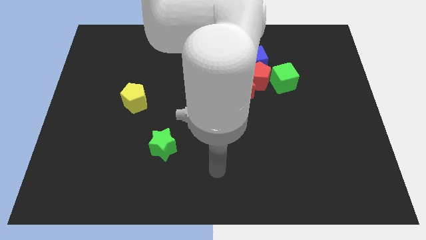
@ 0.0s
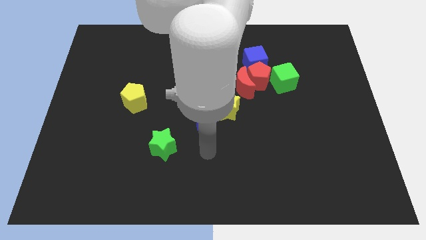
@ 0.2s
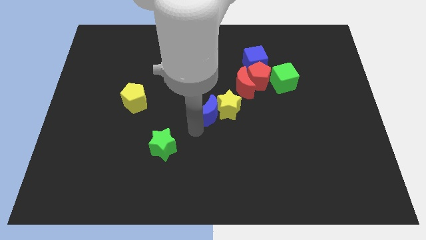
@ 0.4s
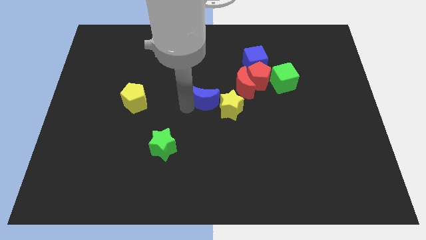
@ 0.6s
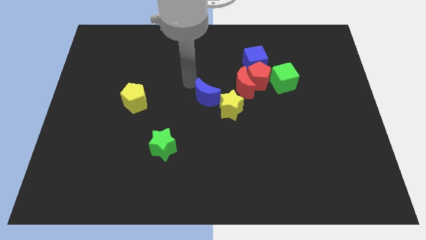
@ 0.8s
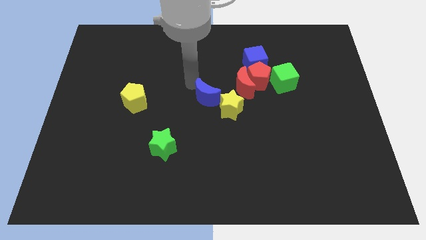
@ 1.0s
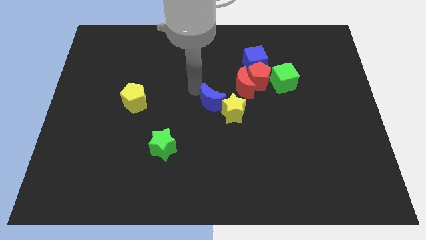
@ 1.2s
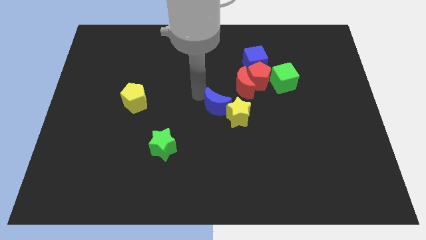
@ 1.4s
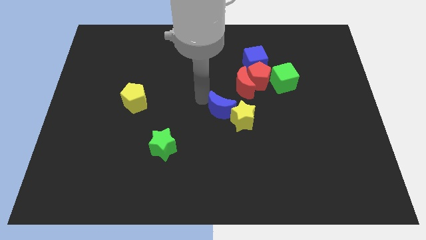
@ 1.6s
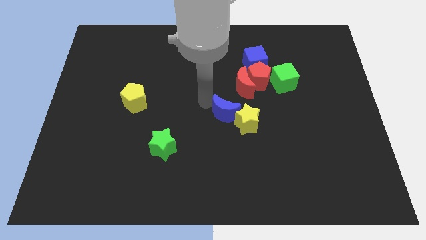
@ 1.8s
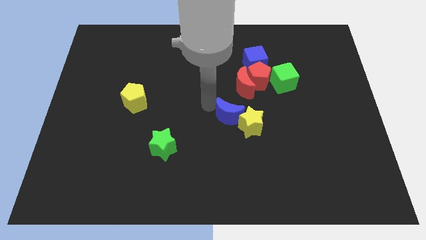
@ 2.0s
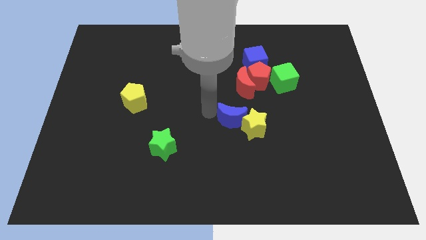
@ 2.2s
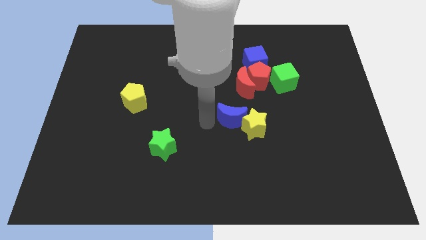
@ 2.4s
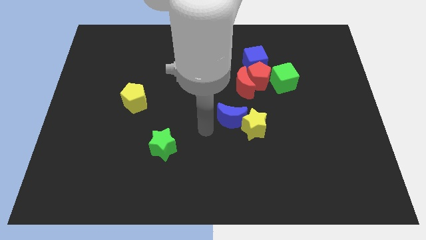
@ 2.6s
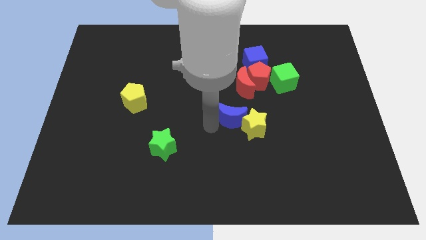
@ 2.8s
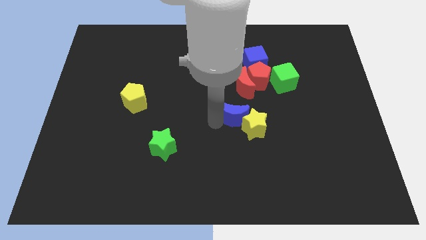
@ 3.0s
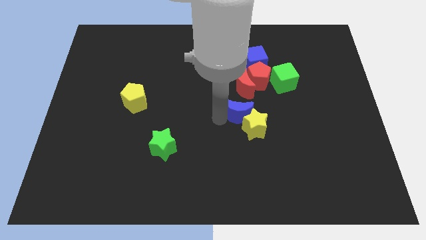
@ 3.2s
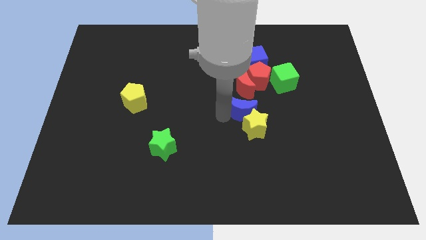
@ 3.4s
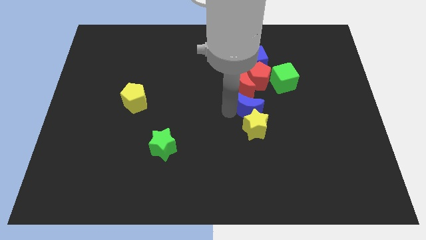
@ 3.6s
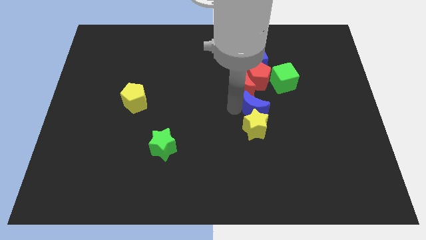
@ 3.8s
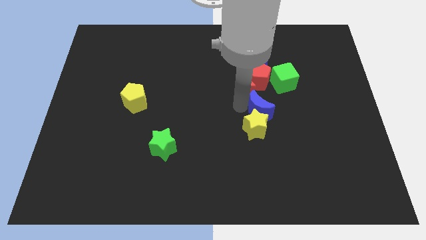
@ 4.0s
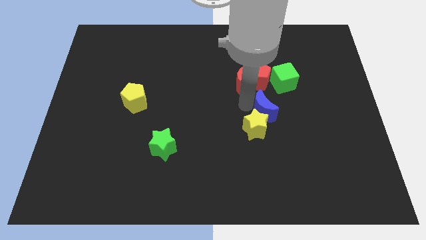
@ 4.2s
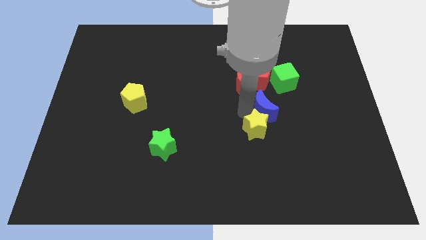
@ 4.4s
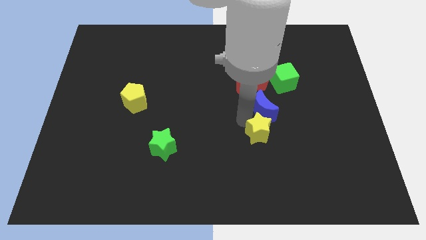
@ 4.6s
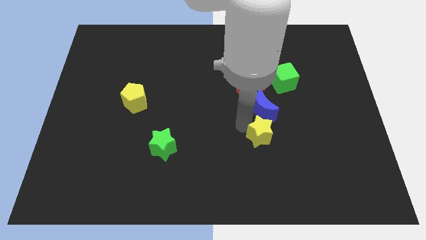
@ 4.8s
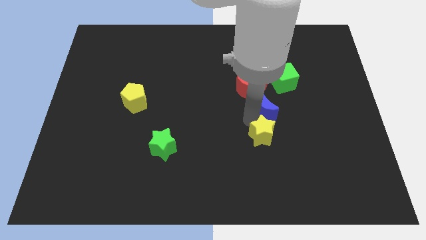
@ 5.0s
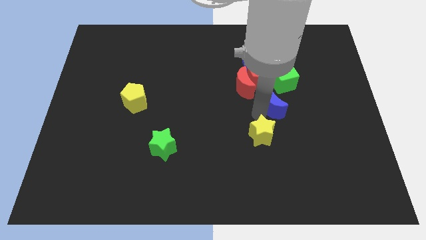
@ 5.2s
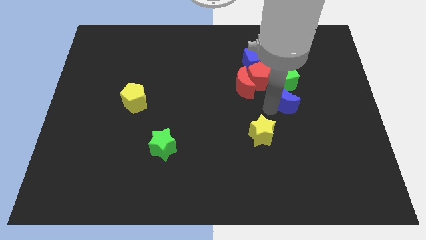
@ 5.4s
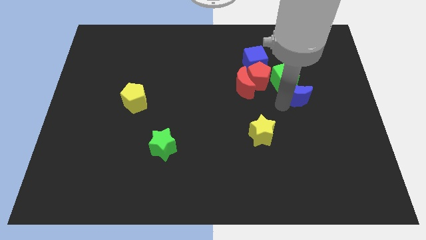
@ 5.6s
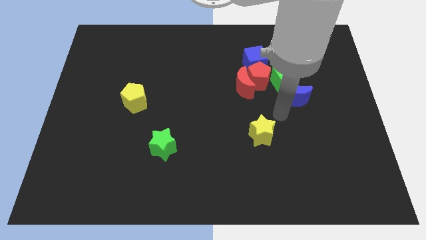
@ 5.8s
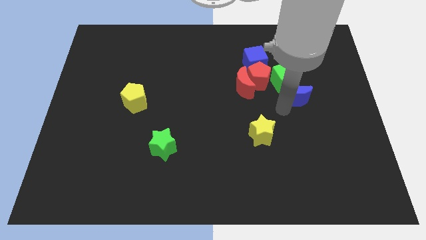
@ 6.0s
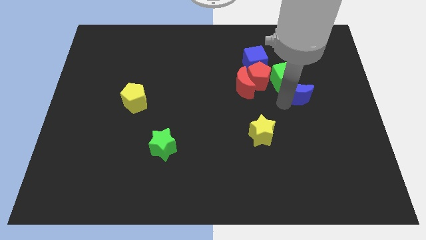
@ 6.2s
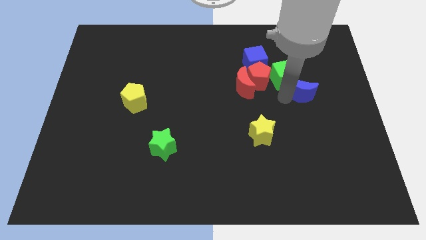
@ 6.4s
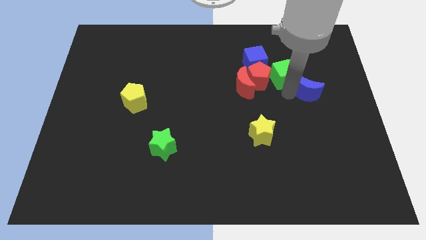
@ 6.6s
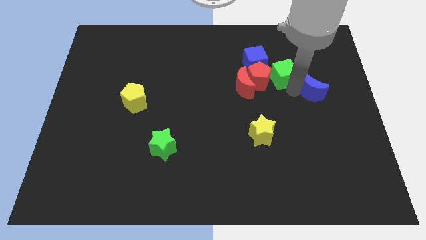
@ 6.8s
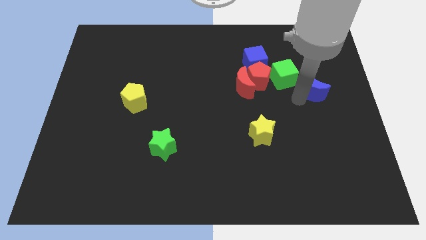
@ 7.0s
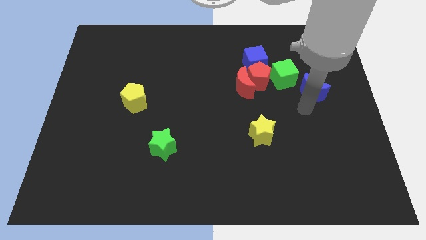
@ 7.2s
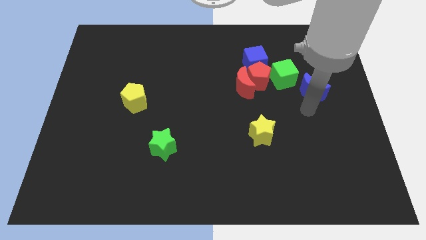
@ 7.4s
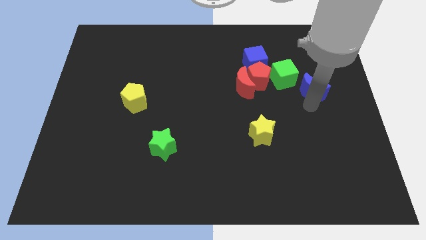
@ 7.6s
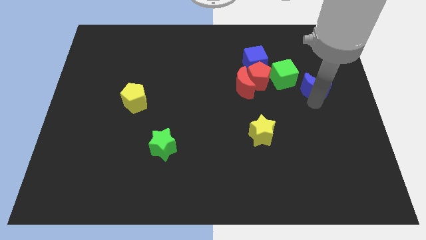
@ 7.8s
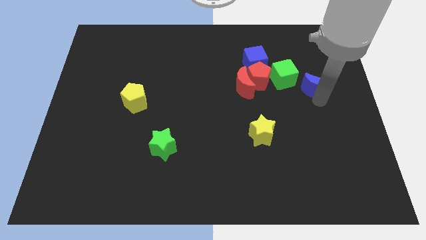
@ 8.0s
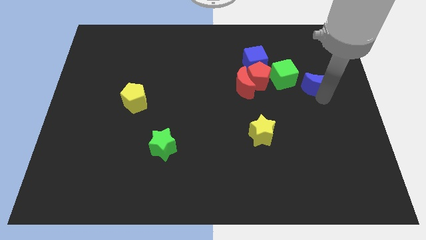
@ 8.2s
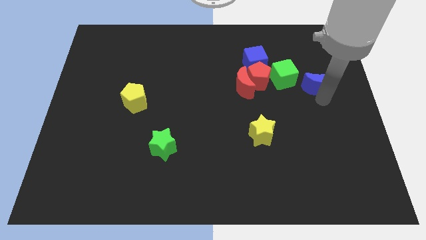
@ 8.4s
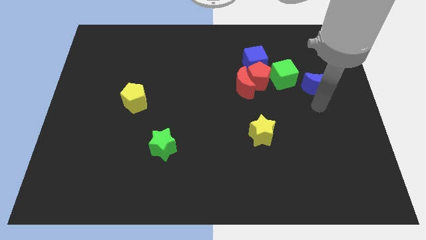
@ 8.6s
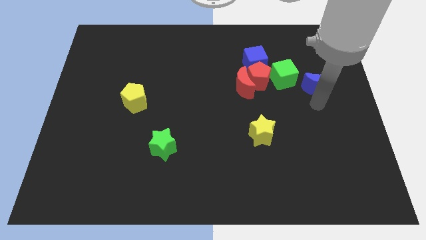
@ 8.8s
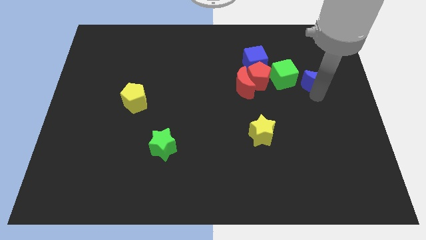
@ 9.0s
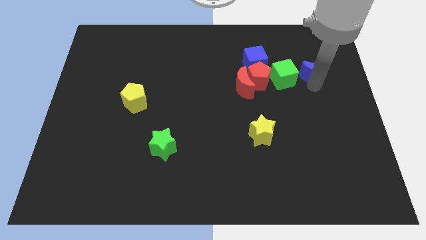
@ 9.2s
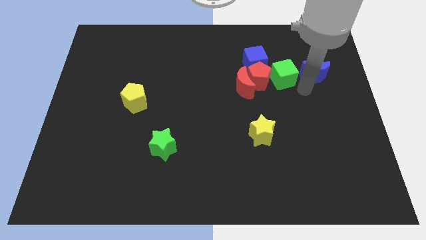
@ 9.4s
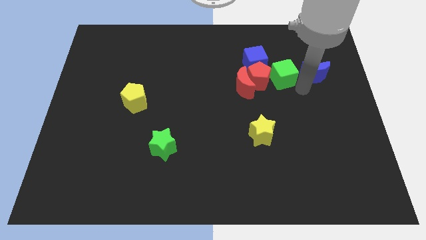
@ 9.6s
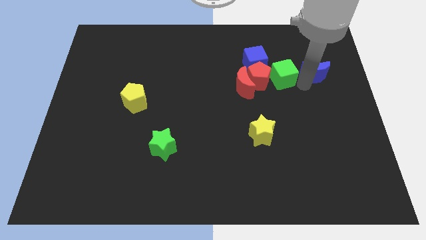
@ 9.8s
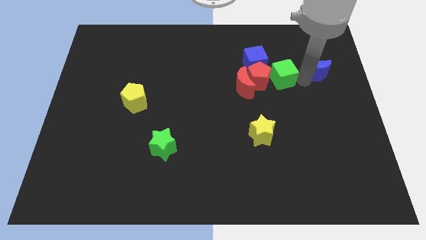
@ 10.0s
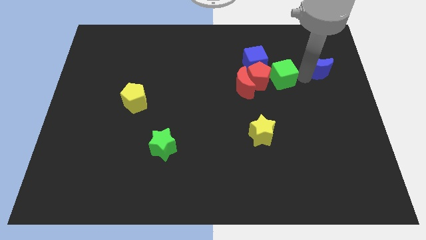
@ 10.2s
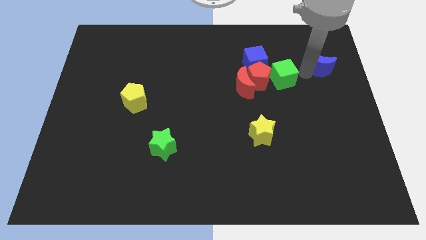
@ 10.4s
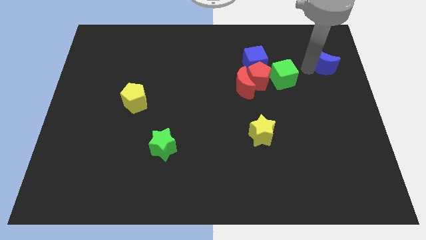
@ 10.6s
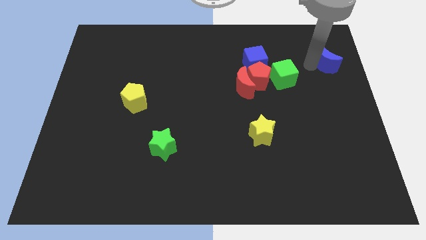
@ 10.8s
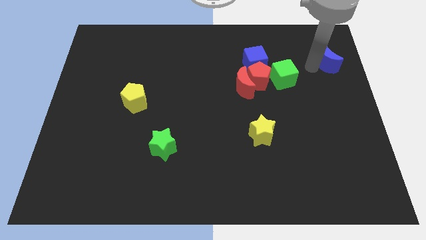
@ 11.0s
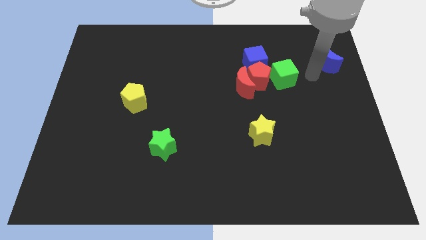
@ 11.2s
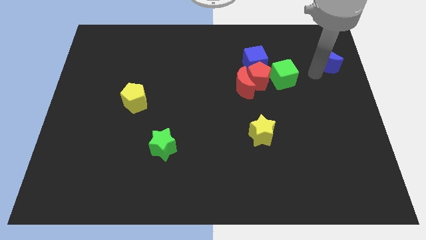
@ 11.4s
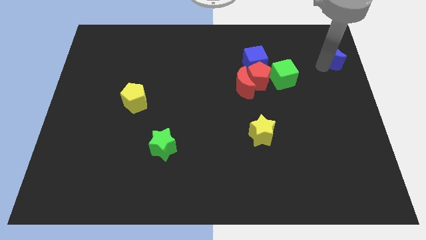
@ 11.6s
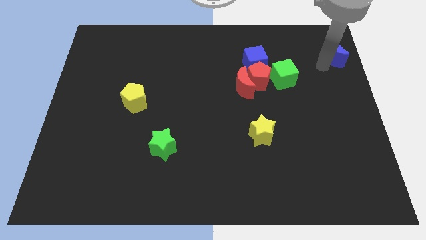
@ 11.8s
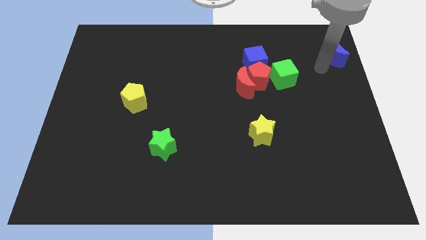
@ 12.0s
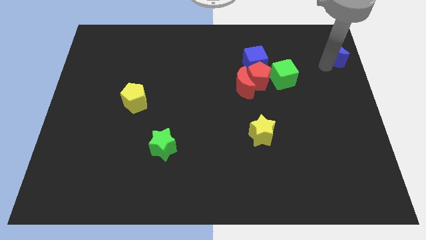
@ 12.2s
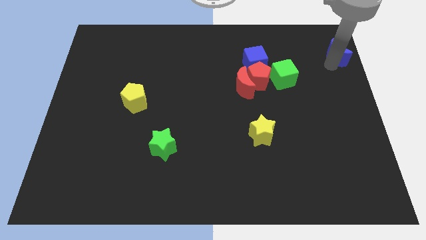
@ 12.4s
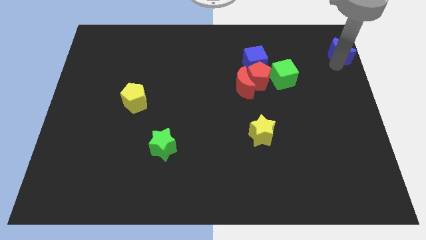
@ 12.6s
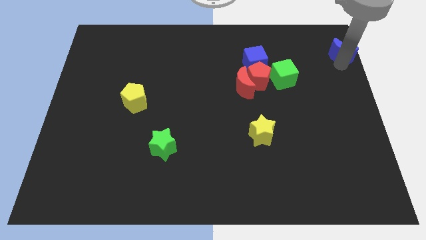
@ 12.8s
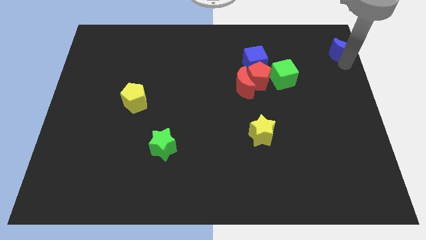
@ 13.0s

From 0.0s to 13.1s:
slide the blue moon to the top right corner
